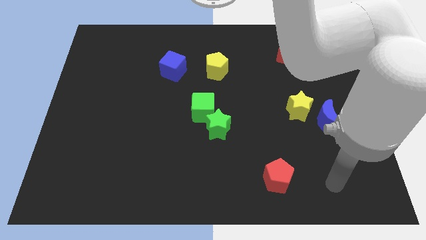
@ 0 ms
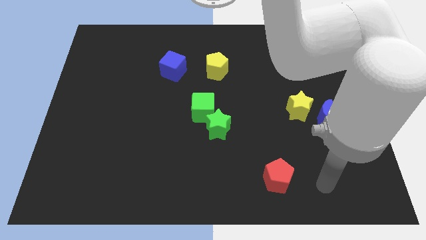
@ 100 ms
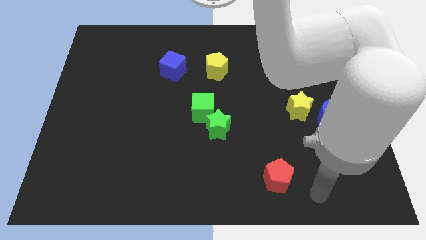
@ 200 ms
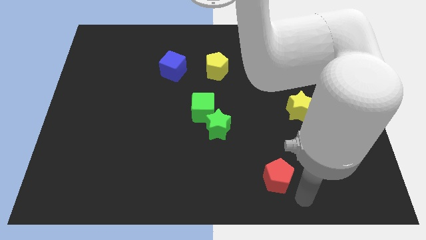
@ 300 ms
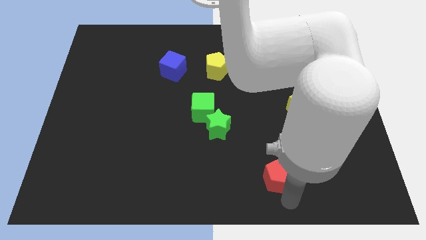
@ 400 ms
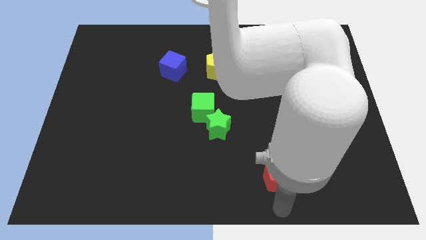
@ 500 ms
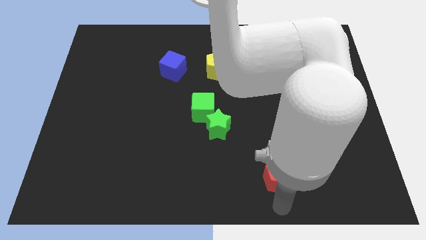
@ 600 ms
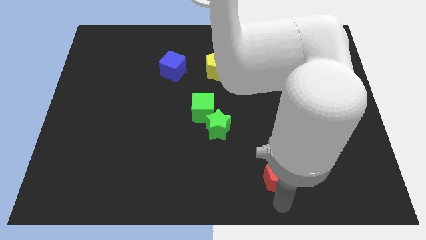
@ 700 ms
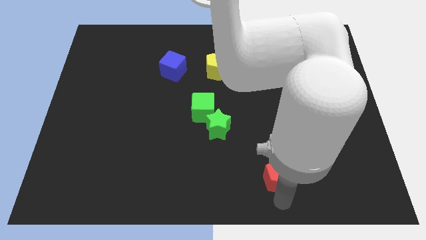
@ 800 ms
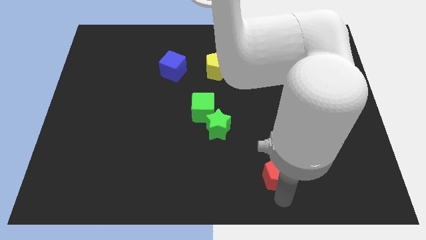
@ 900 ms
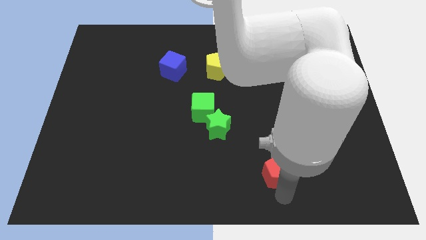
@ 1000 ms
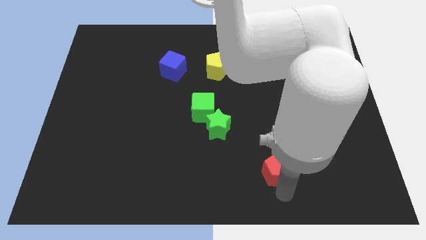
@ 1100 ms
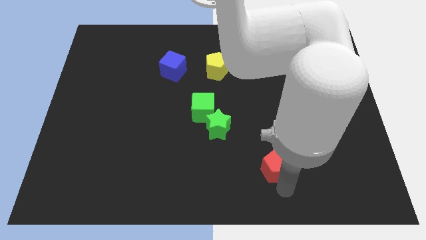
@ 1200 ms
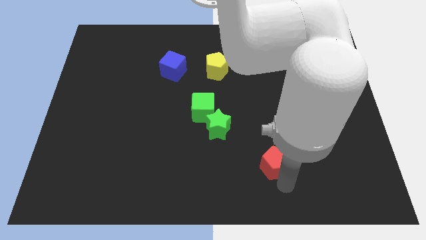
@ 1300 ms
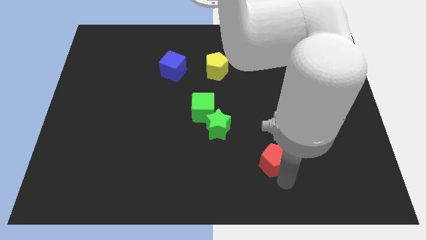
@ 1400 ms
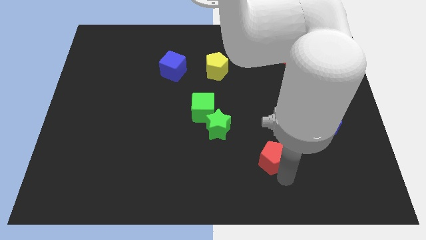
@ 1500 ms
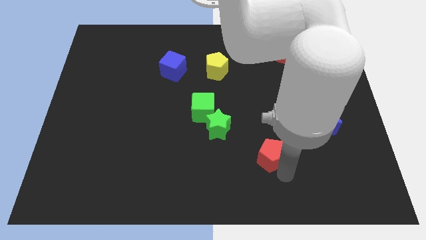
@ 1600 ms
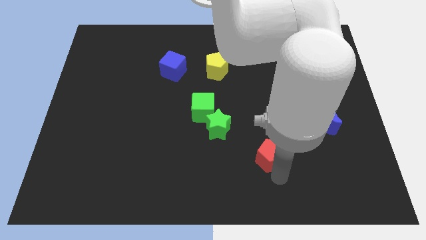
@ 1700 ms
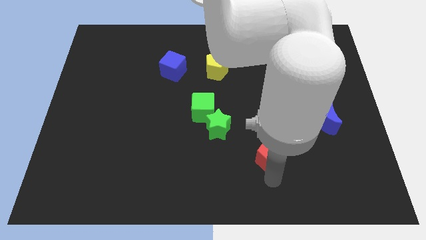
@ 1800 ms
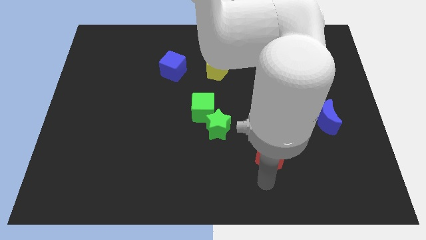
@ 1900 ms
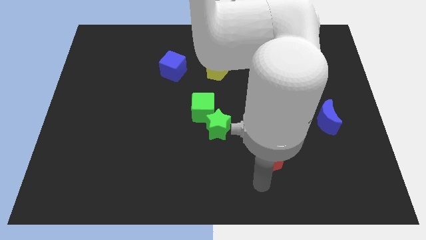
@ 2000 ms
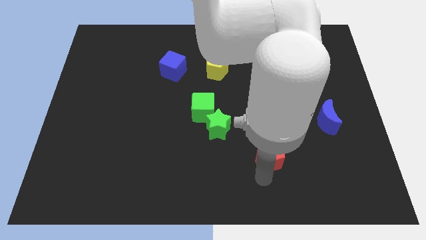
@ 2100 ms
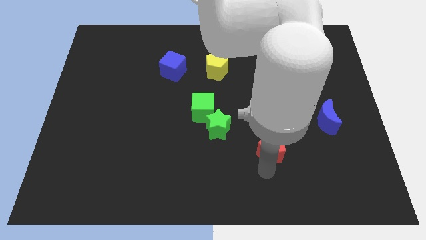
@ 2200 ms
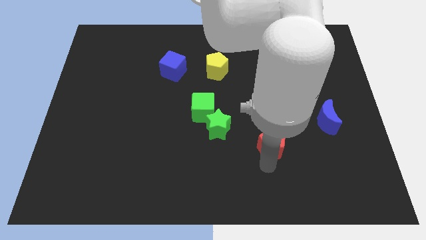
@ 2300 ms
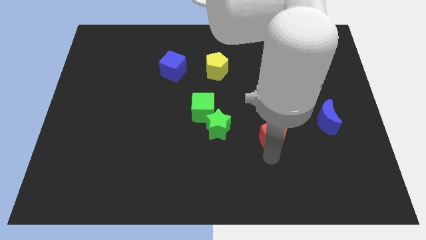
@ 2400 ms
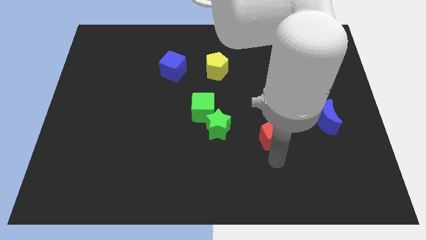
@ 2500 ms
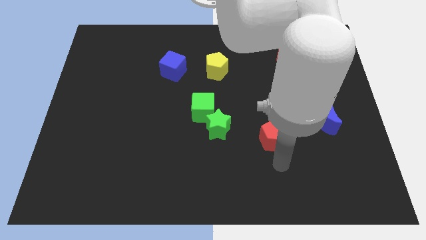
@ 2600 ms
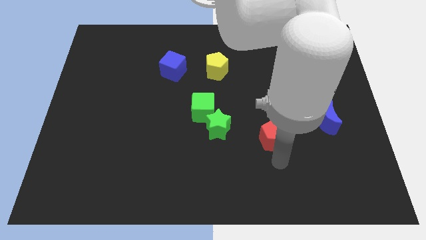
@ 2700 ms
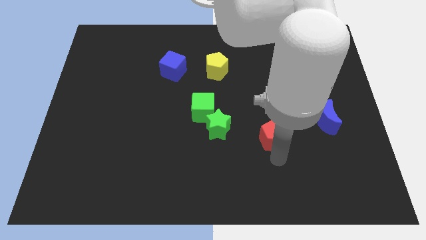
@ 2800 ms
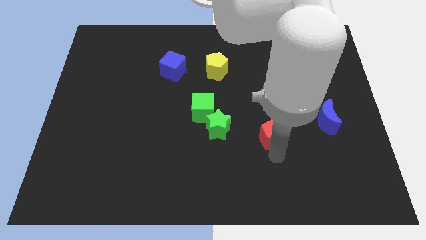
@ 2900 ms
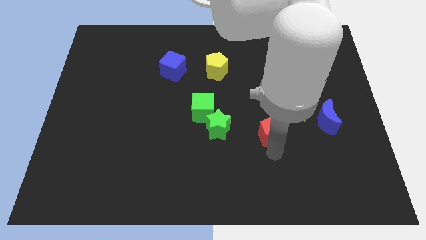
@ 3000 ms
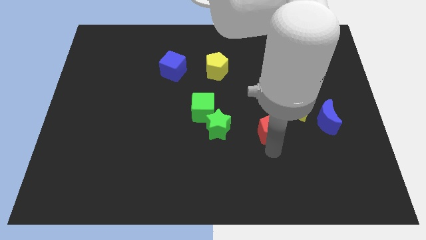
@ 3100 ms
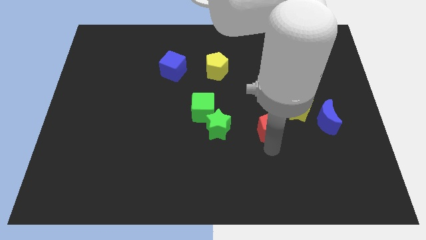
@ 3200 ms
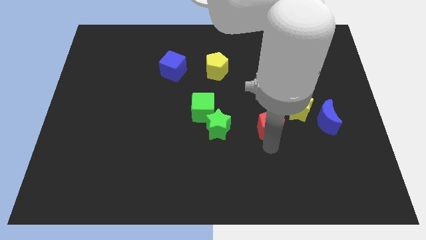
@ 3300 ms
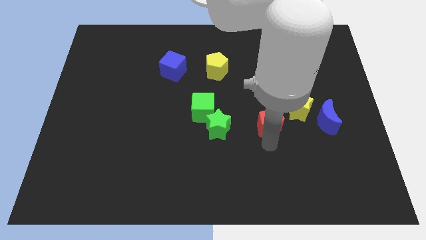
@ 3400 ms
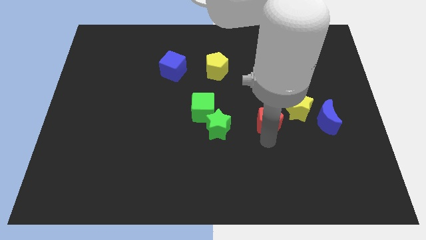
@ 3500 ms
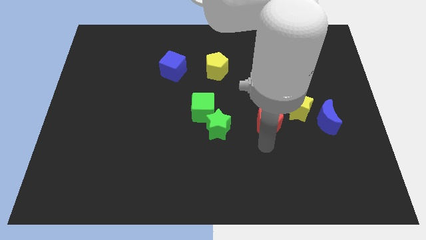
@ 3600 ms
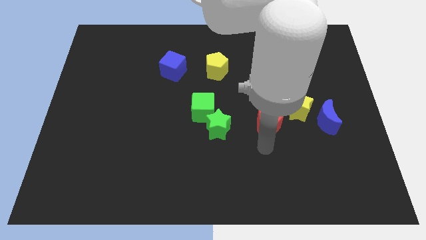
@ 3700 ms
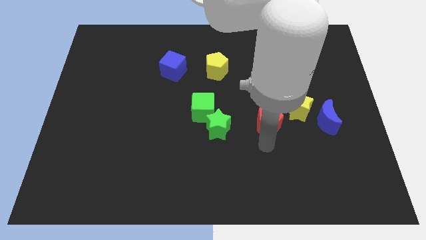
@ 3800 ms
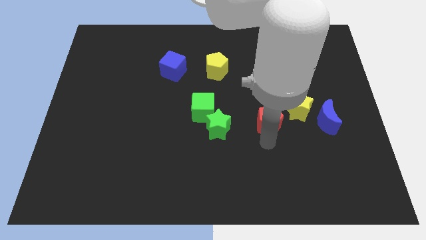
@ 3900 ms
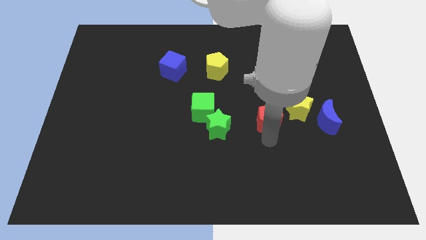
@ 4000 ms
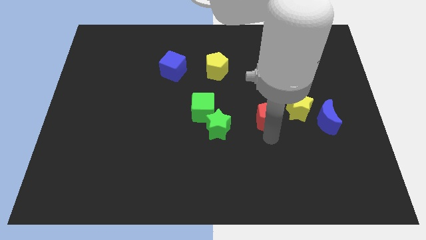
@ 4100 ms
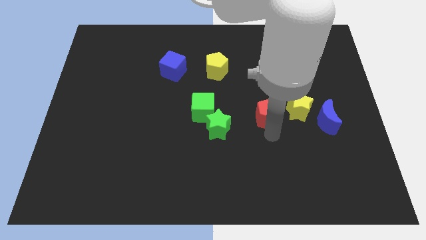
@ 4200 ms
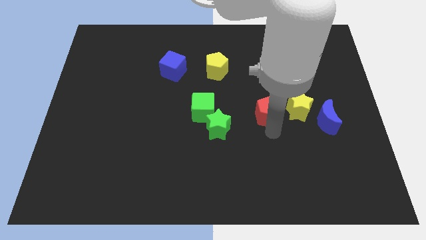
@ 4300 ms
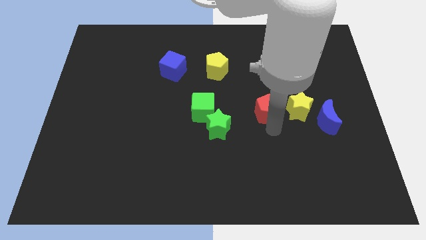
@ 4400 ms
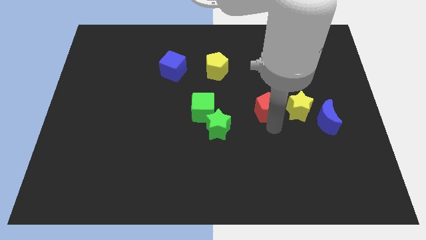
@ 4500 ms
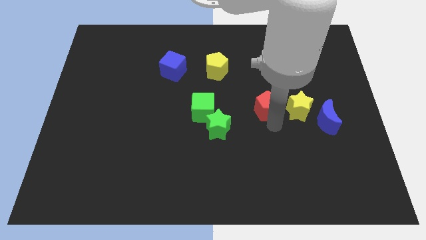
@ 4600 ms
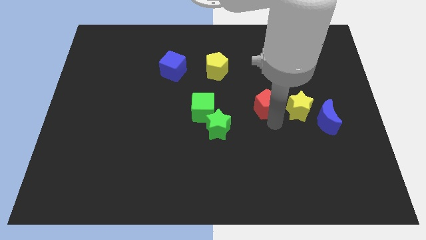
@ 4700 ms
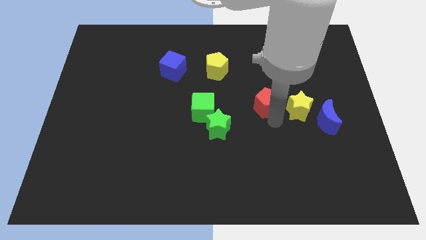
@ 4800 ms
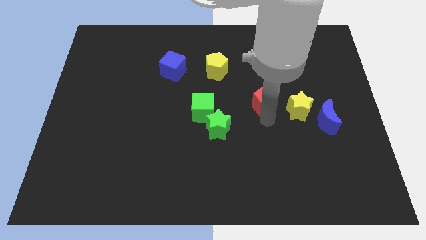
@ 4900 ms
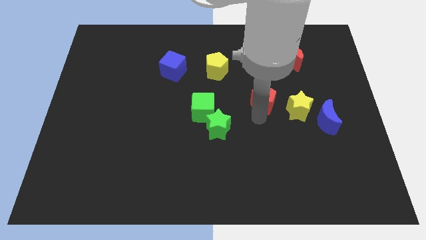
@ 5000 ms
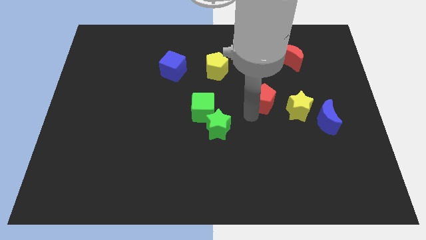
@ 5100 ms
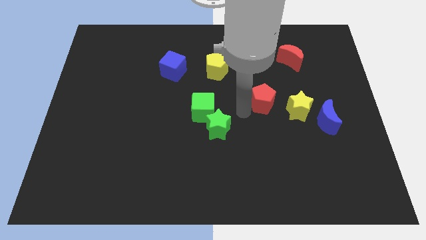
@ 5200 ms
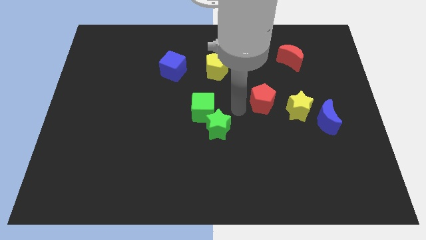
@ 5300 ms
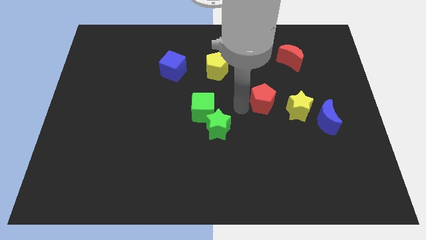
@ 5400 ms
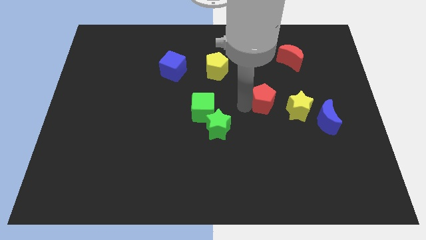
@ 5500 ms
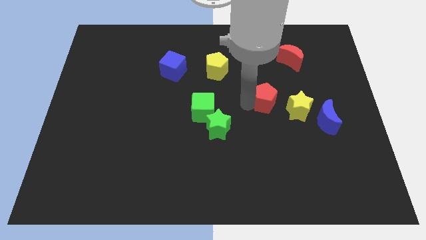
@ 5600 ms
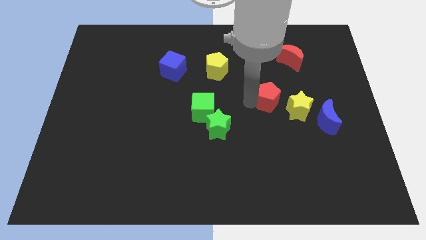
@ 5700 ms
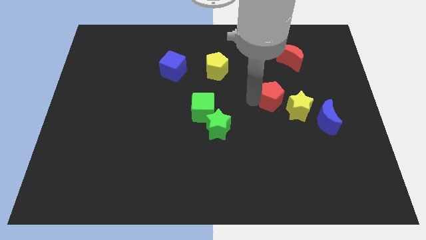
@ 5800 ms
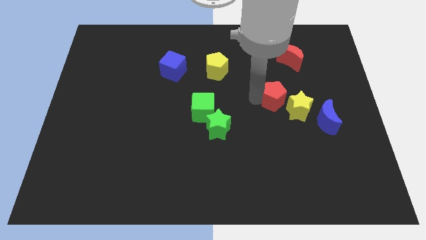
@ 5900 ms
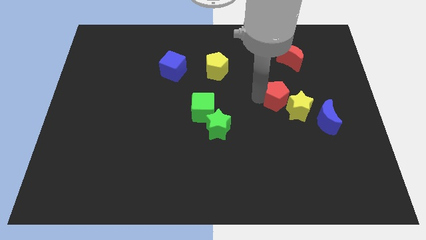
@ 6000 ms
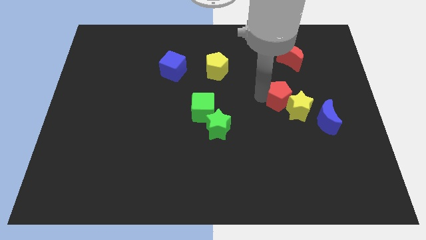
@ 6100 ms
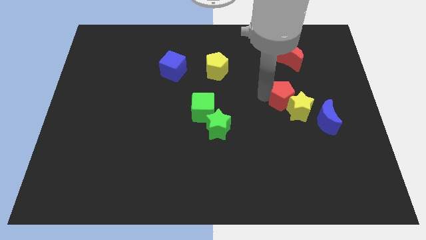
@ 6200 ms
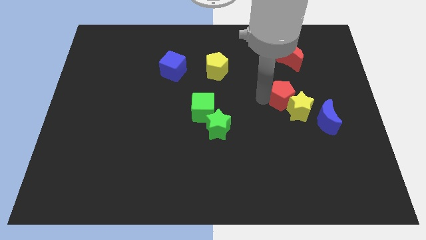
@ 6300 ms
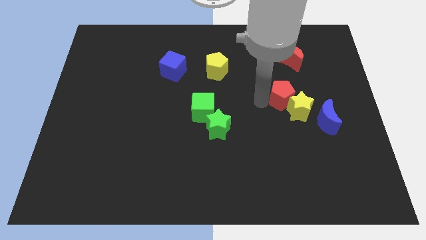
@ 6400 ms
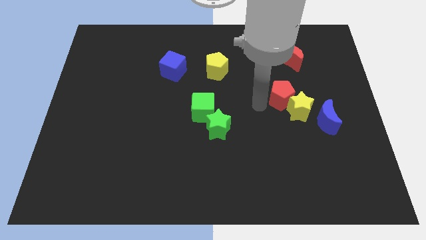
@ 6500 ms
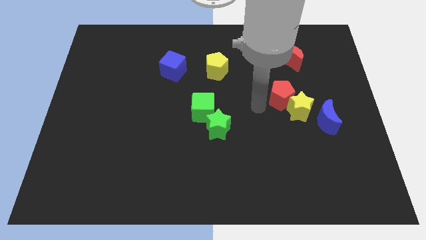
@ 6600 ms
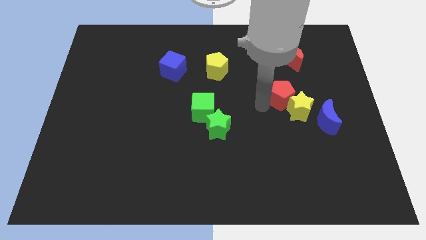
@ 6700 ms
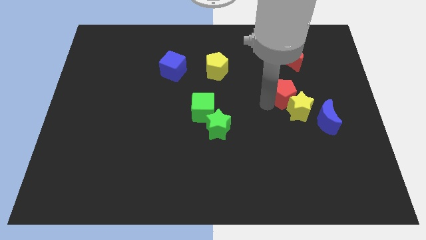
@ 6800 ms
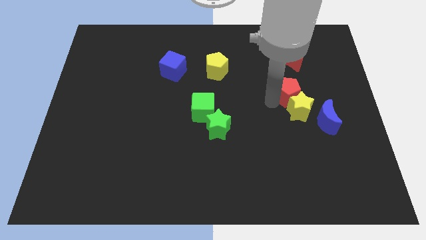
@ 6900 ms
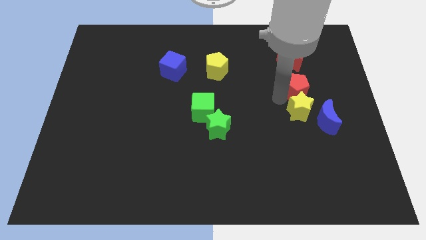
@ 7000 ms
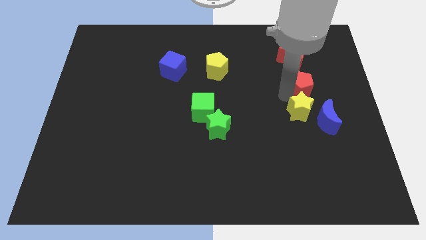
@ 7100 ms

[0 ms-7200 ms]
slide the red pentagon to the top of the blue moon
